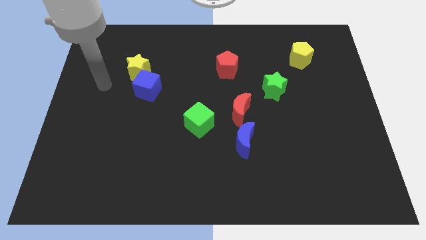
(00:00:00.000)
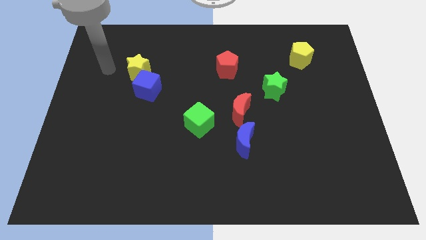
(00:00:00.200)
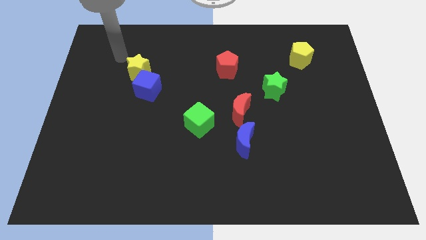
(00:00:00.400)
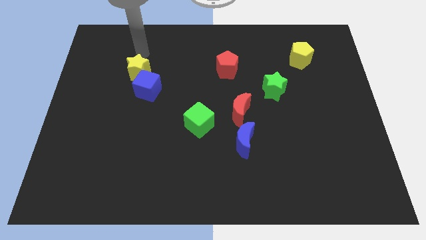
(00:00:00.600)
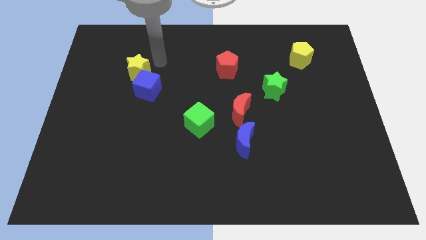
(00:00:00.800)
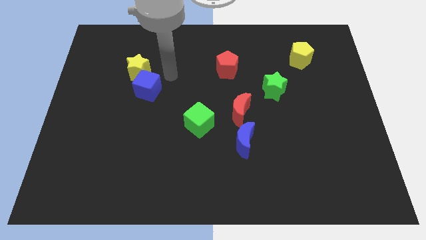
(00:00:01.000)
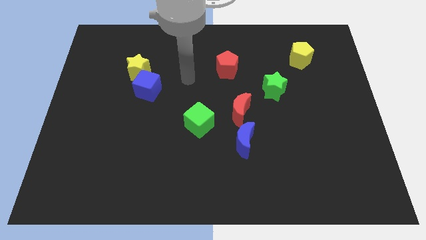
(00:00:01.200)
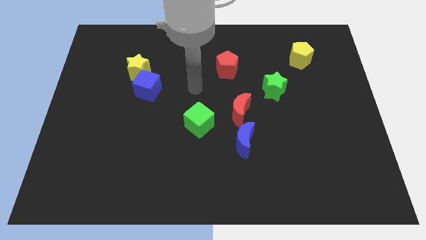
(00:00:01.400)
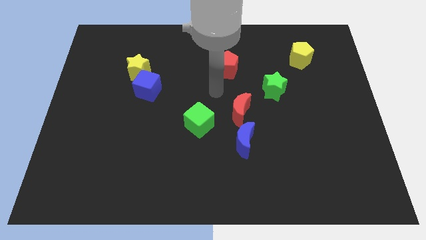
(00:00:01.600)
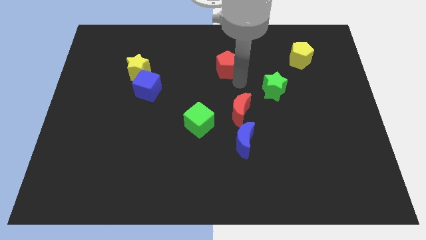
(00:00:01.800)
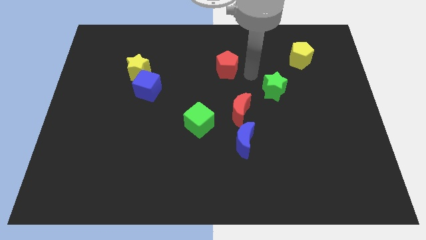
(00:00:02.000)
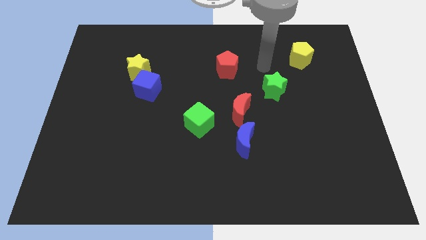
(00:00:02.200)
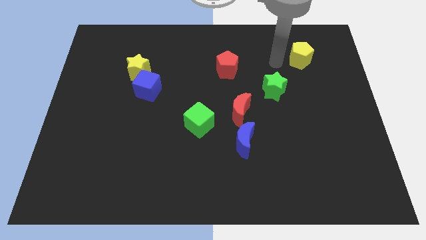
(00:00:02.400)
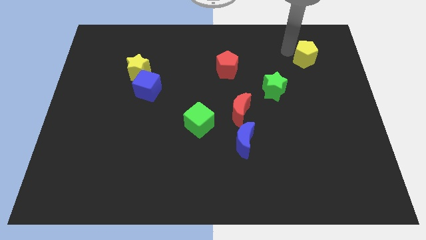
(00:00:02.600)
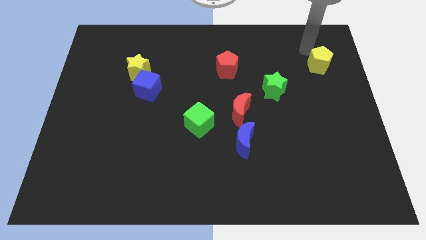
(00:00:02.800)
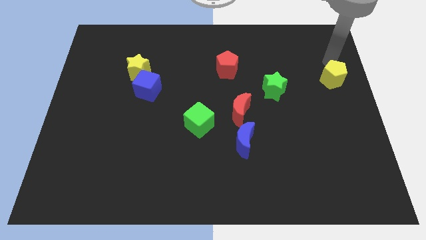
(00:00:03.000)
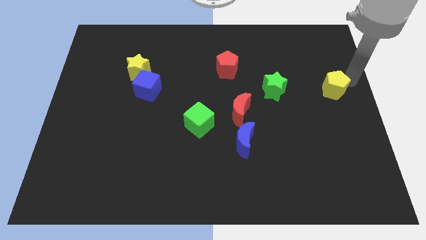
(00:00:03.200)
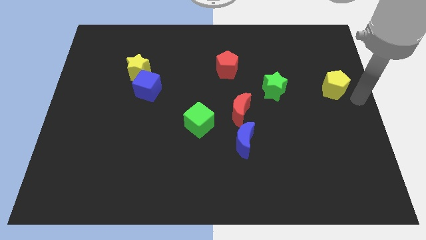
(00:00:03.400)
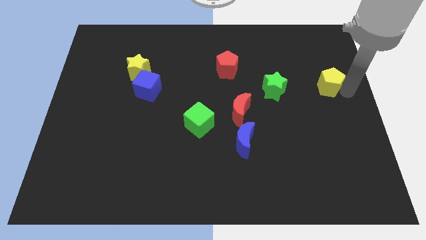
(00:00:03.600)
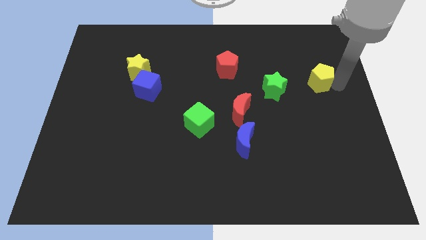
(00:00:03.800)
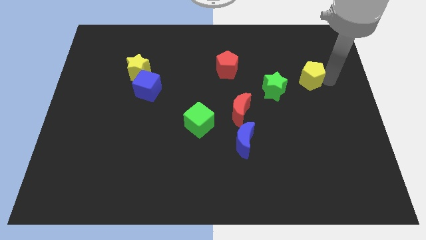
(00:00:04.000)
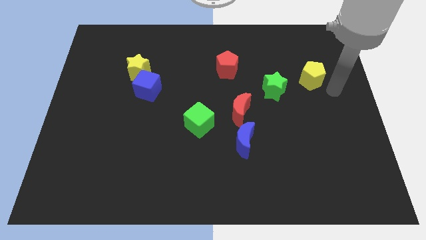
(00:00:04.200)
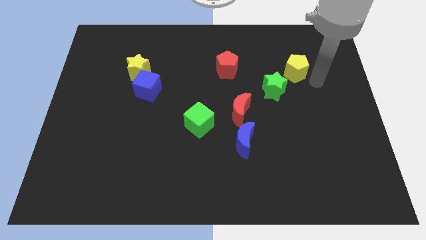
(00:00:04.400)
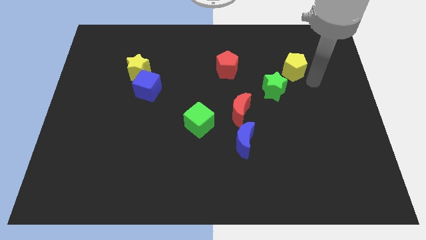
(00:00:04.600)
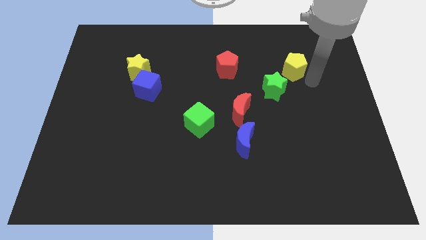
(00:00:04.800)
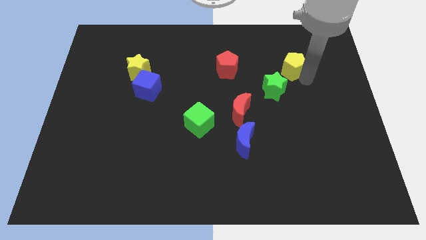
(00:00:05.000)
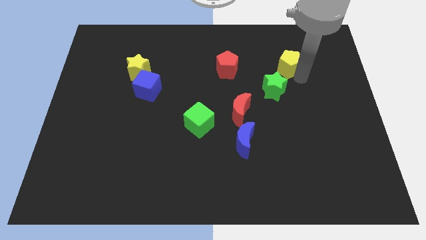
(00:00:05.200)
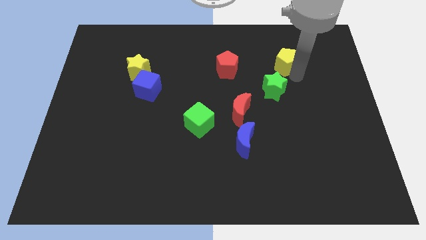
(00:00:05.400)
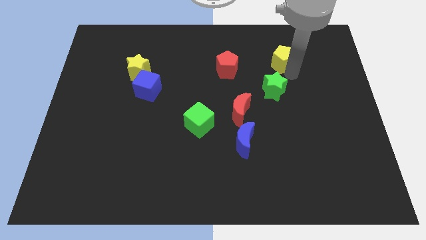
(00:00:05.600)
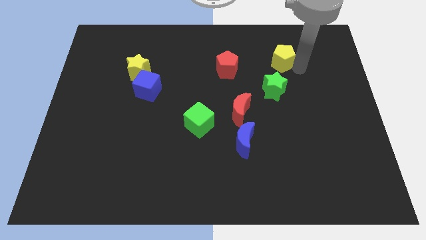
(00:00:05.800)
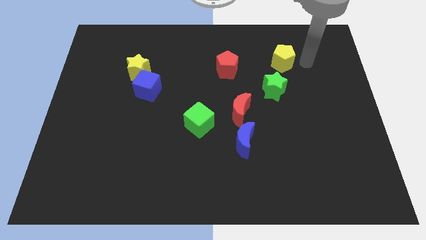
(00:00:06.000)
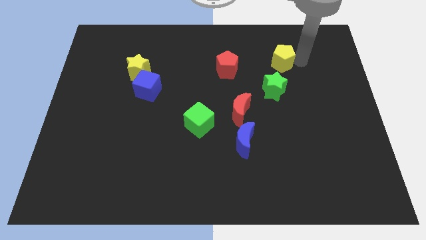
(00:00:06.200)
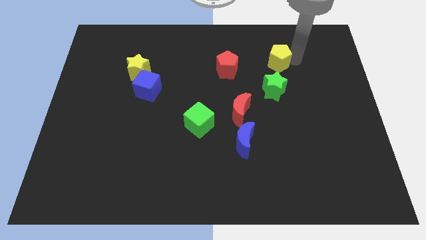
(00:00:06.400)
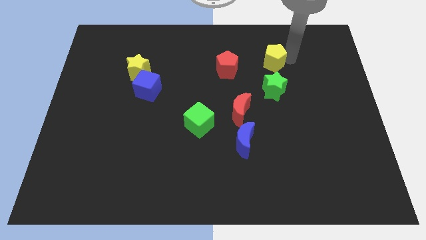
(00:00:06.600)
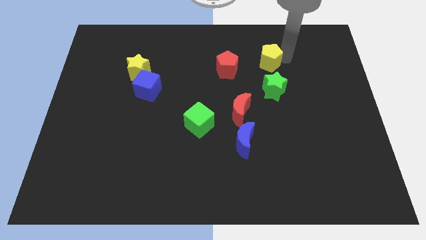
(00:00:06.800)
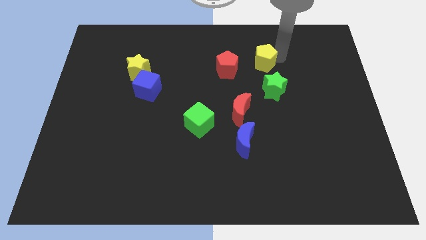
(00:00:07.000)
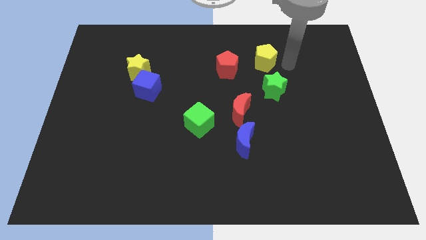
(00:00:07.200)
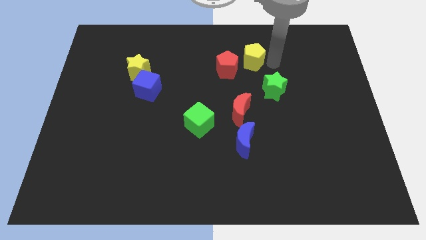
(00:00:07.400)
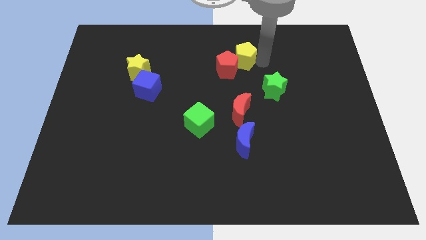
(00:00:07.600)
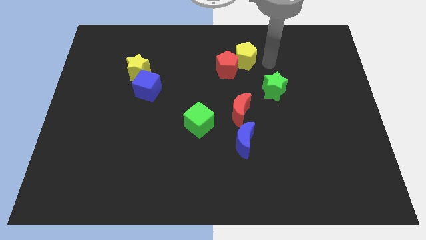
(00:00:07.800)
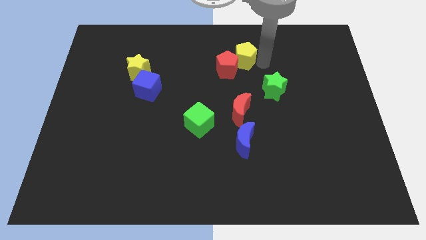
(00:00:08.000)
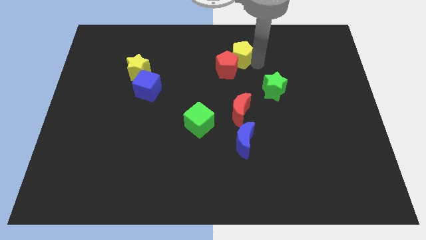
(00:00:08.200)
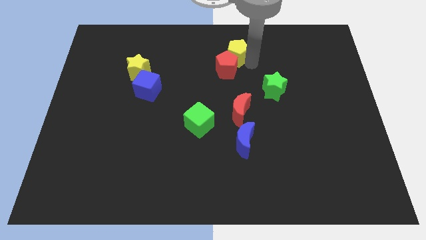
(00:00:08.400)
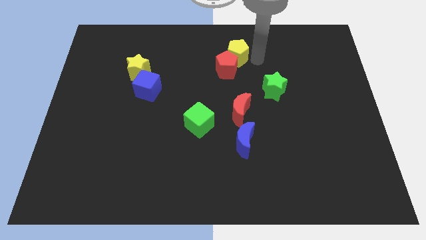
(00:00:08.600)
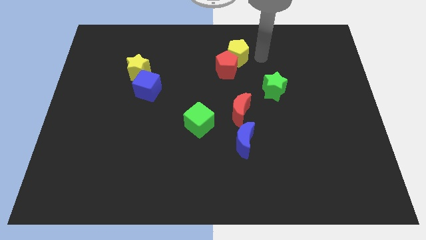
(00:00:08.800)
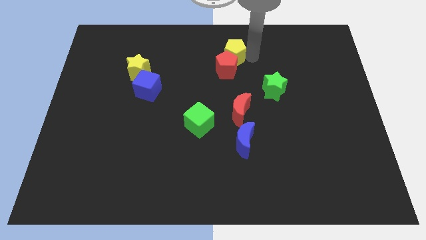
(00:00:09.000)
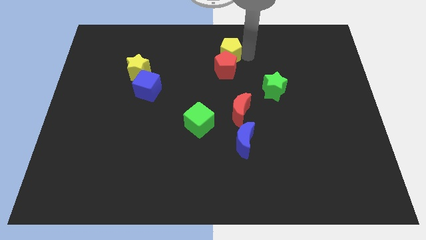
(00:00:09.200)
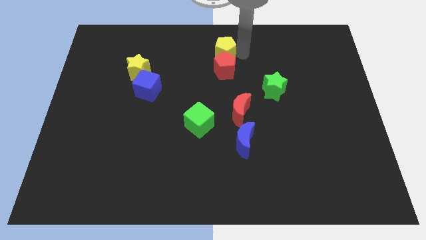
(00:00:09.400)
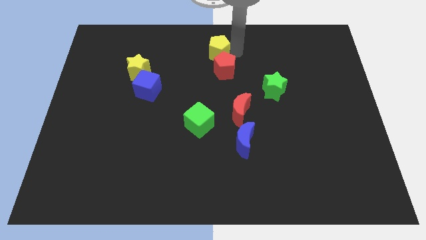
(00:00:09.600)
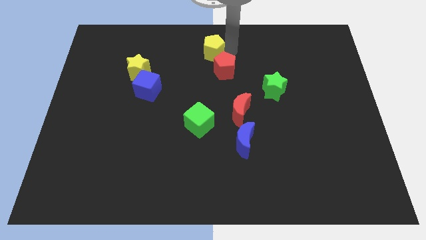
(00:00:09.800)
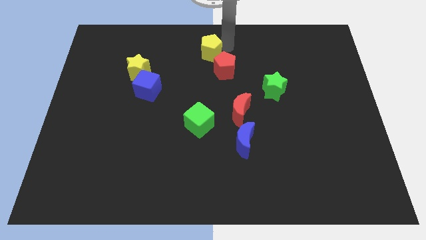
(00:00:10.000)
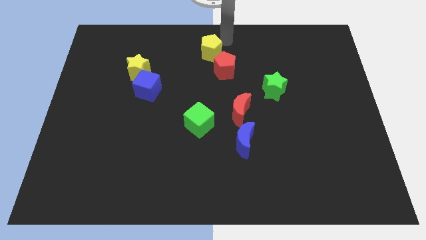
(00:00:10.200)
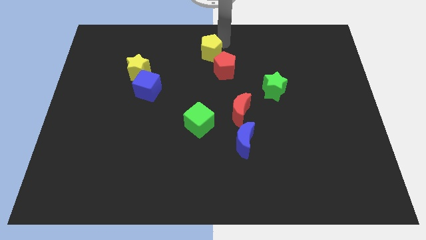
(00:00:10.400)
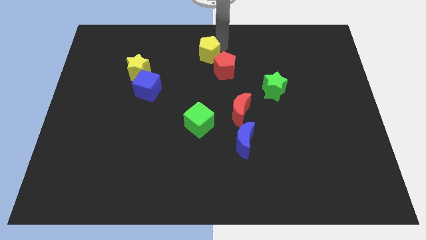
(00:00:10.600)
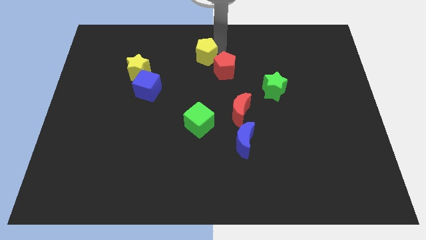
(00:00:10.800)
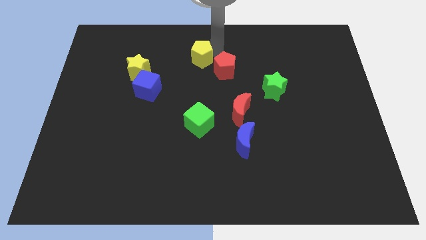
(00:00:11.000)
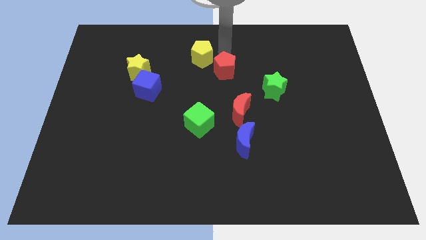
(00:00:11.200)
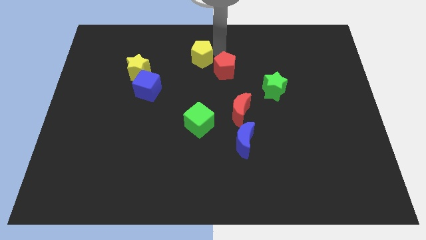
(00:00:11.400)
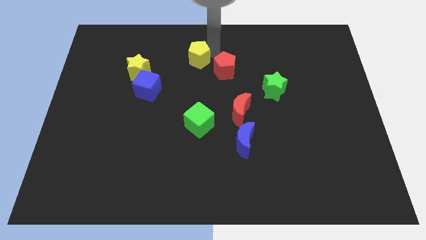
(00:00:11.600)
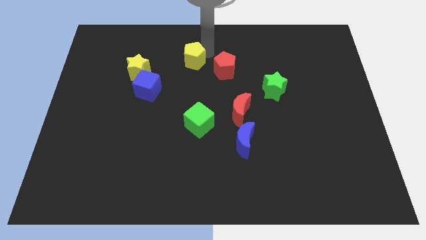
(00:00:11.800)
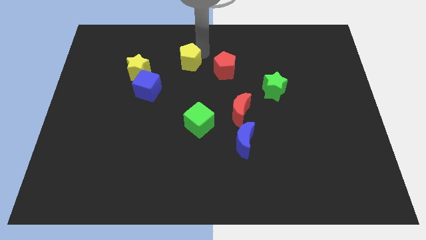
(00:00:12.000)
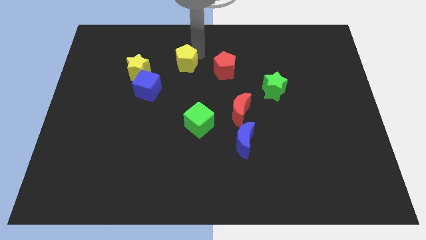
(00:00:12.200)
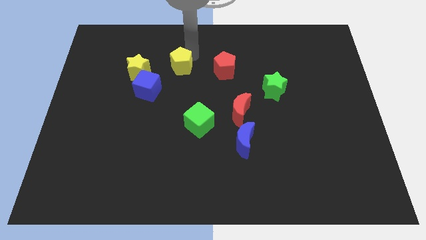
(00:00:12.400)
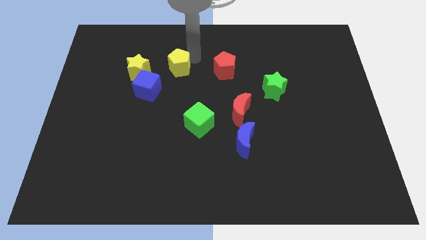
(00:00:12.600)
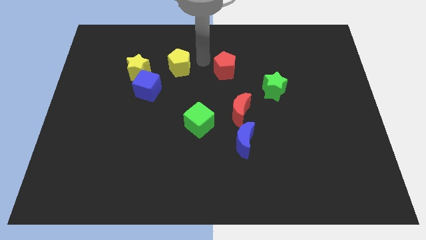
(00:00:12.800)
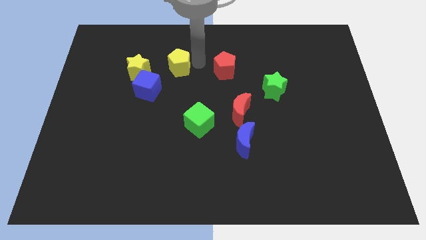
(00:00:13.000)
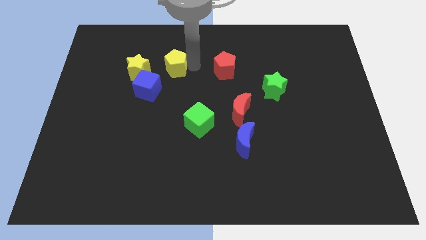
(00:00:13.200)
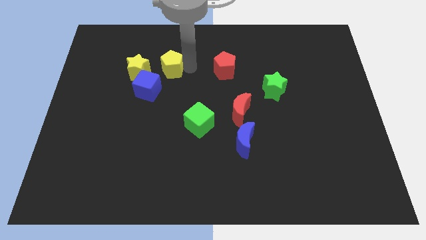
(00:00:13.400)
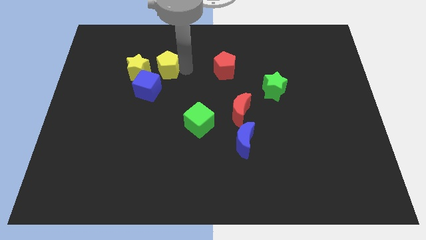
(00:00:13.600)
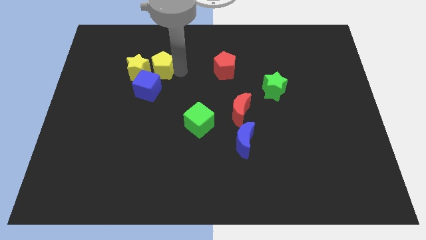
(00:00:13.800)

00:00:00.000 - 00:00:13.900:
move the yellow pentagon close to the yellow star

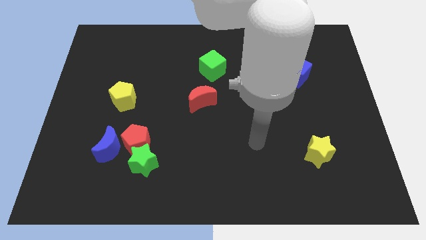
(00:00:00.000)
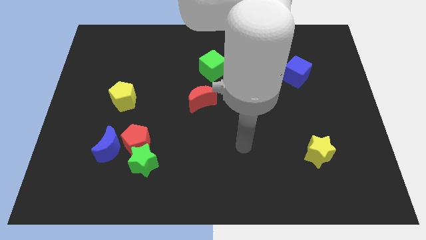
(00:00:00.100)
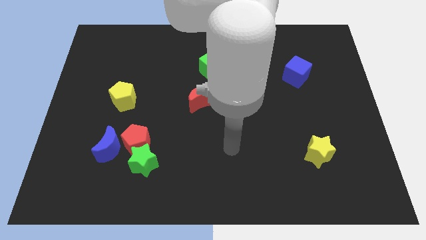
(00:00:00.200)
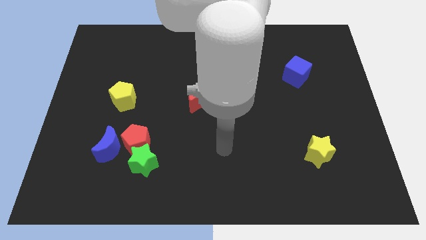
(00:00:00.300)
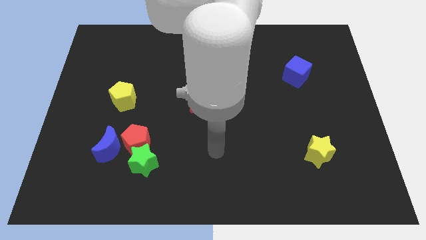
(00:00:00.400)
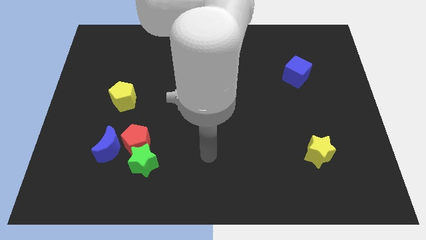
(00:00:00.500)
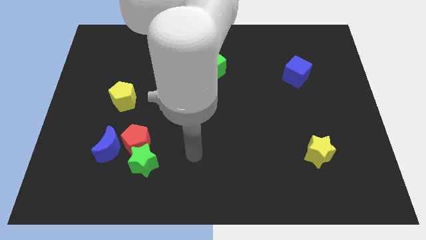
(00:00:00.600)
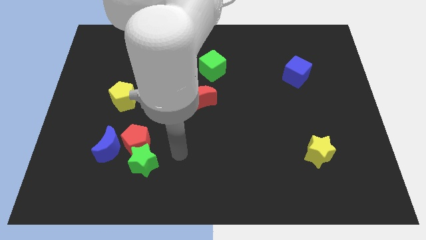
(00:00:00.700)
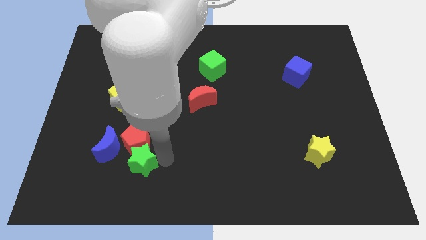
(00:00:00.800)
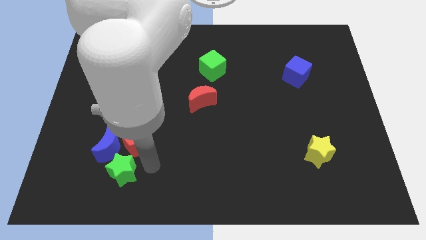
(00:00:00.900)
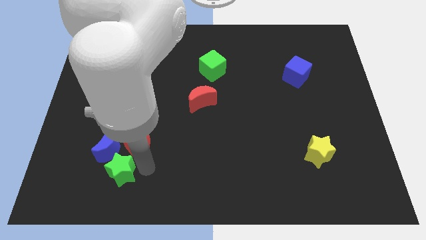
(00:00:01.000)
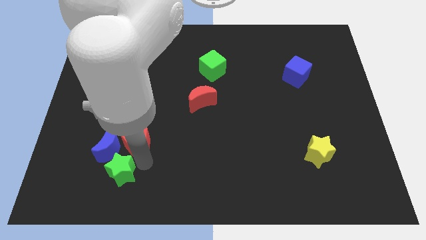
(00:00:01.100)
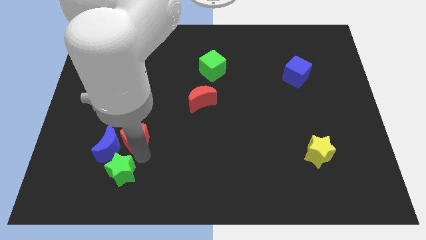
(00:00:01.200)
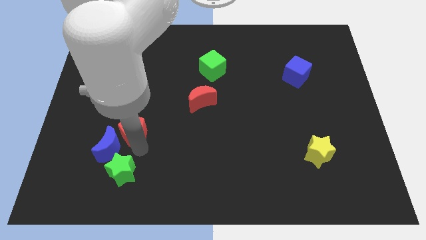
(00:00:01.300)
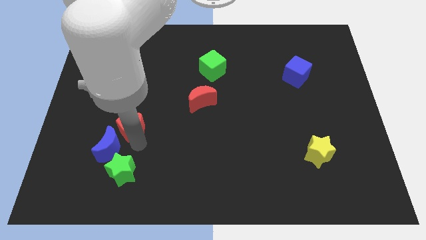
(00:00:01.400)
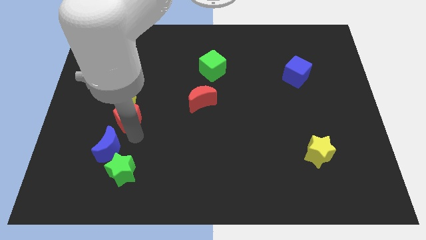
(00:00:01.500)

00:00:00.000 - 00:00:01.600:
move the red pentagon to the yellow pentagon
